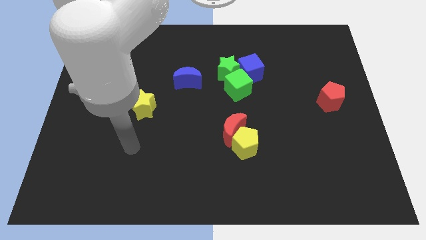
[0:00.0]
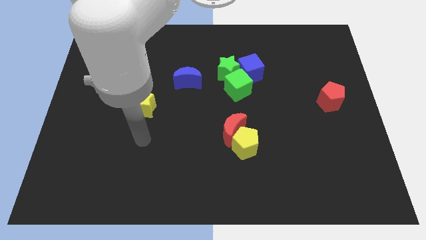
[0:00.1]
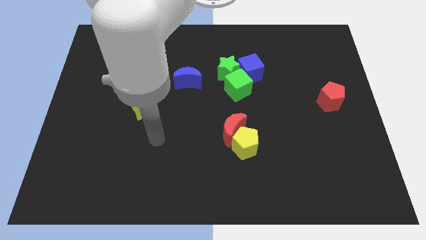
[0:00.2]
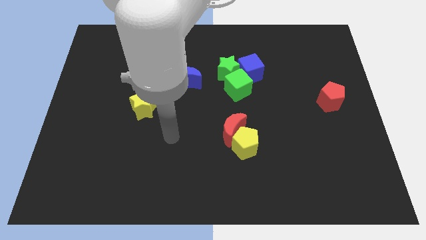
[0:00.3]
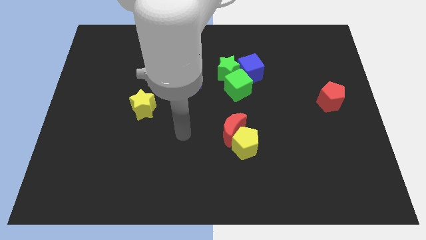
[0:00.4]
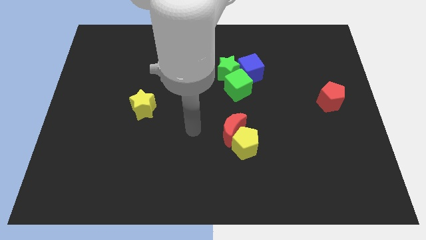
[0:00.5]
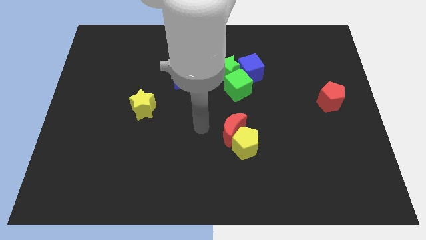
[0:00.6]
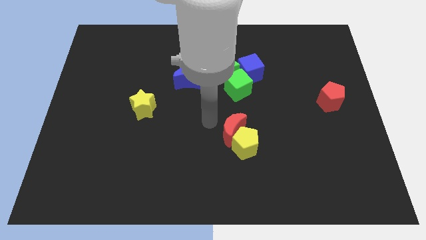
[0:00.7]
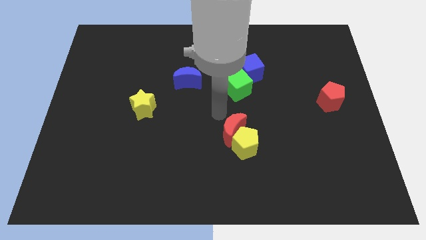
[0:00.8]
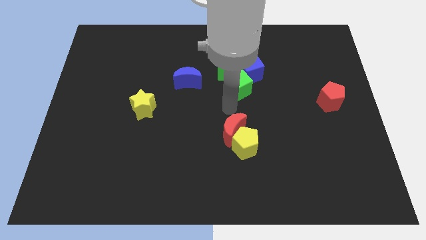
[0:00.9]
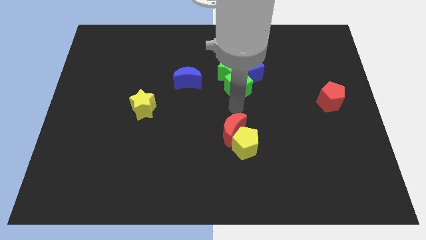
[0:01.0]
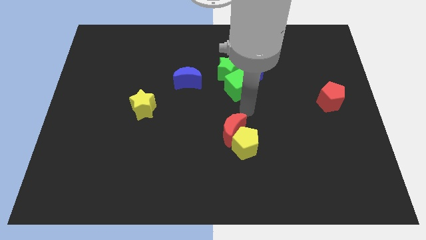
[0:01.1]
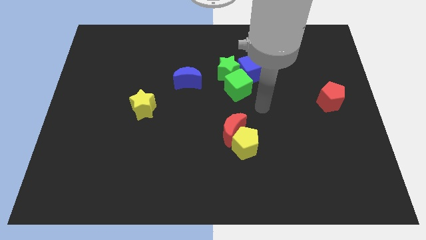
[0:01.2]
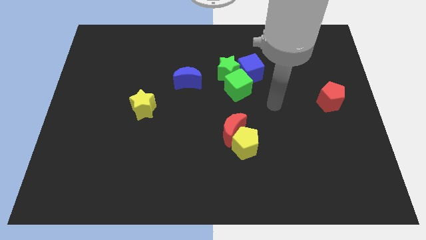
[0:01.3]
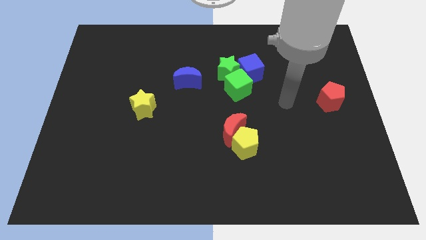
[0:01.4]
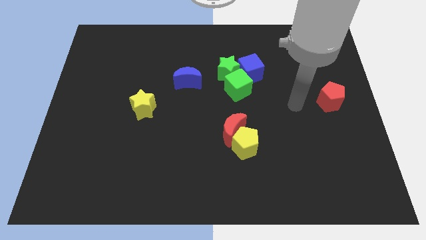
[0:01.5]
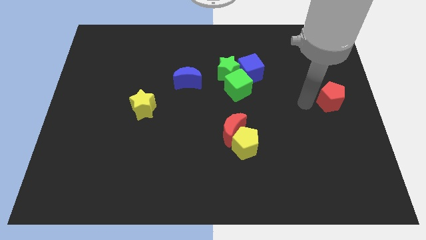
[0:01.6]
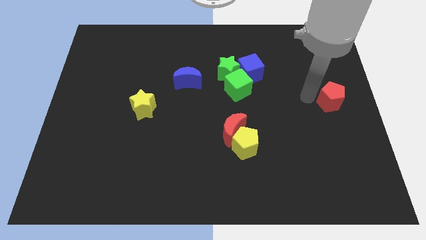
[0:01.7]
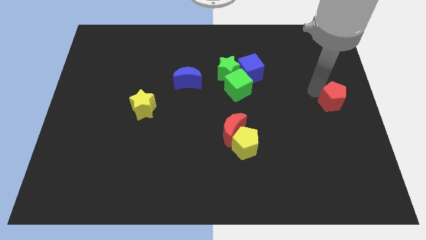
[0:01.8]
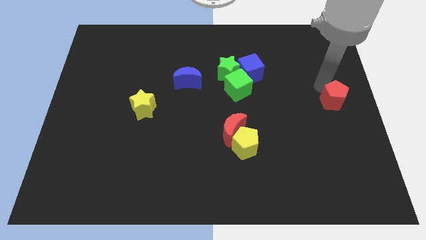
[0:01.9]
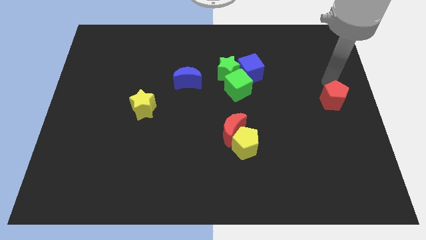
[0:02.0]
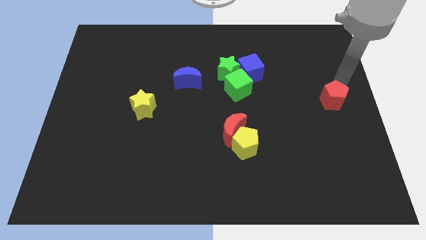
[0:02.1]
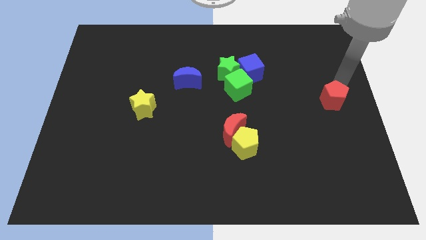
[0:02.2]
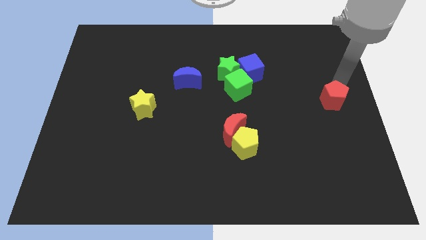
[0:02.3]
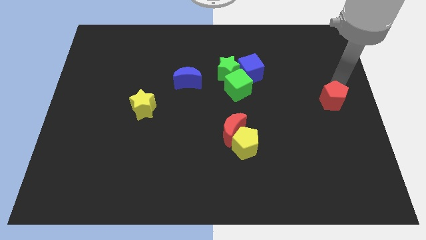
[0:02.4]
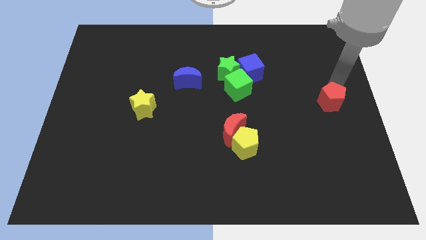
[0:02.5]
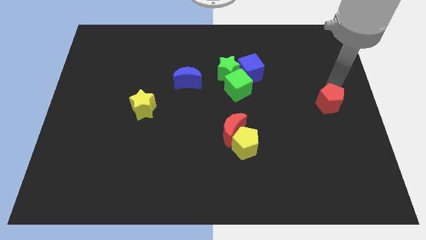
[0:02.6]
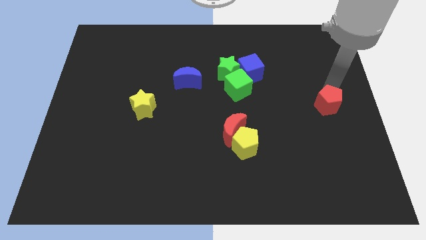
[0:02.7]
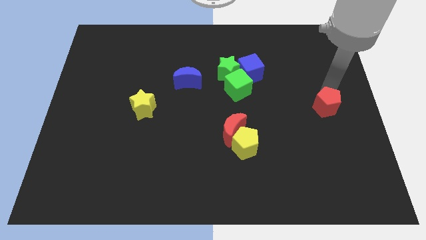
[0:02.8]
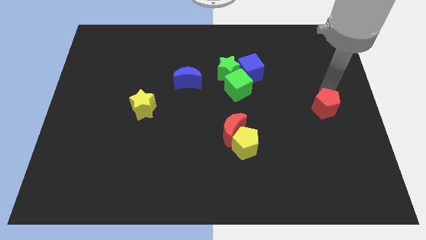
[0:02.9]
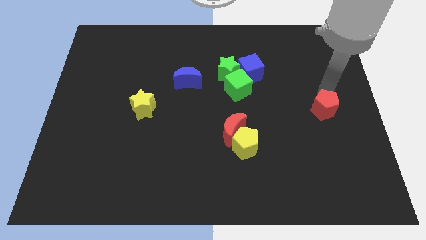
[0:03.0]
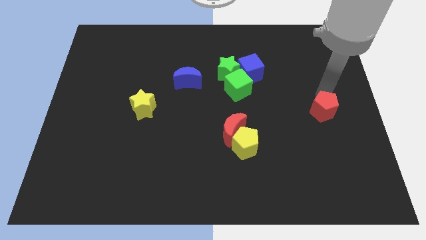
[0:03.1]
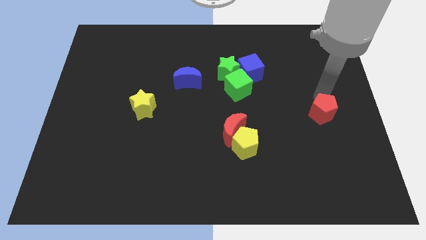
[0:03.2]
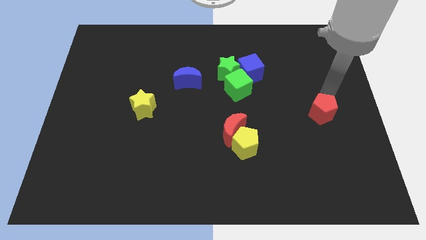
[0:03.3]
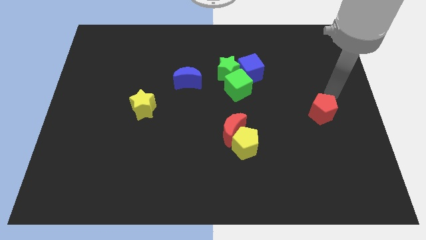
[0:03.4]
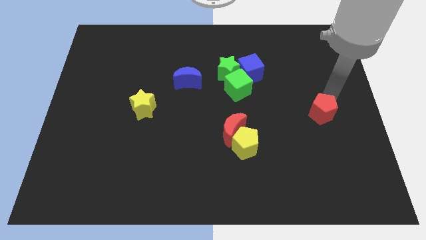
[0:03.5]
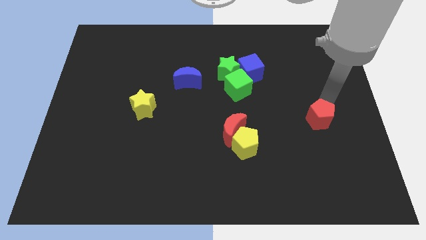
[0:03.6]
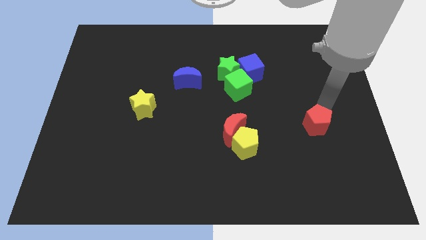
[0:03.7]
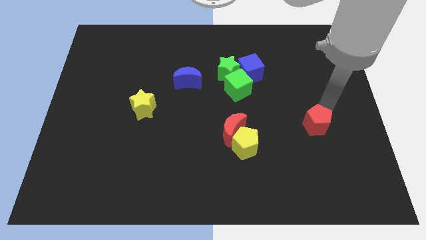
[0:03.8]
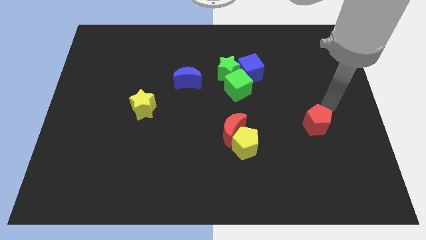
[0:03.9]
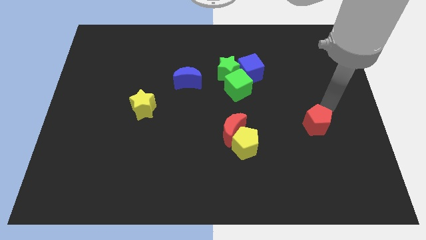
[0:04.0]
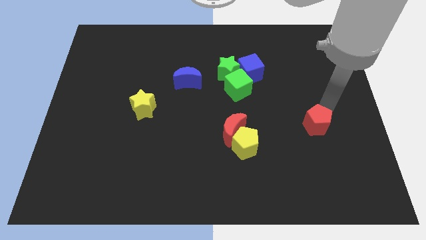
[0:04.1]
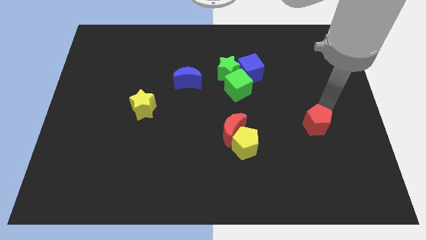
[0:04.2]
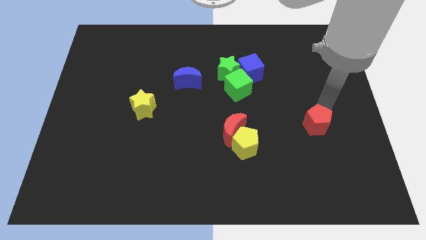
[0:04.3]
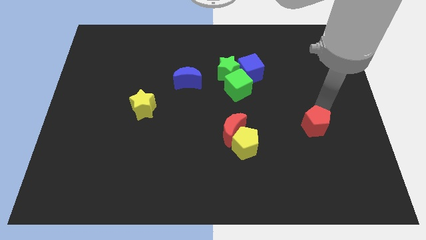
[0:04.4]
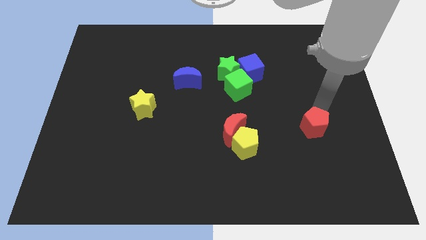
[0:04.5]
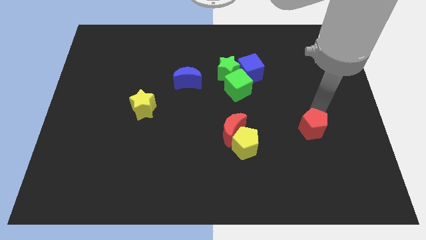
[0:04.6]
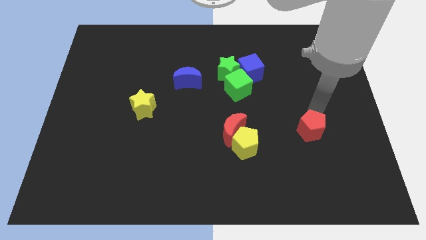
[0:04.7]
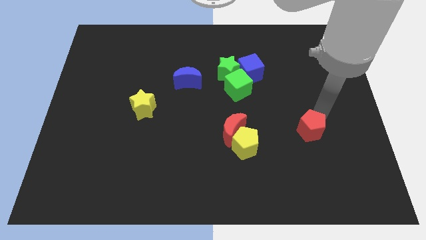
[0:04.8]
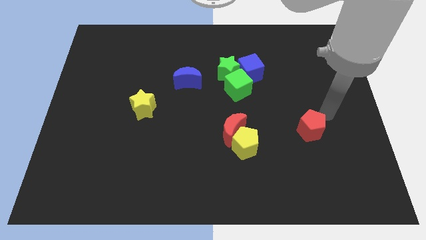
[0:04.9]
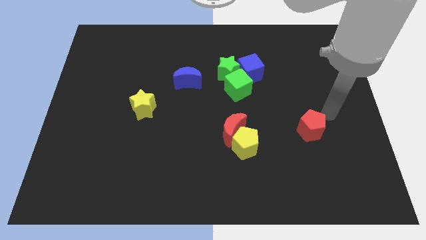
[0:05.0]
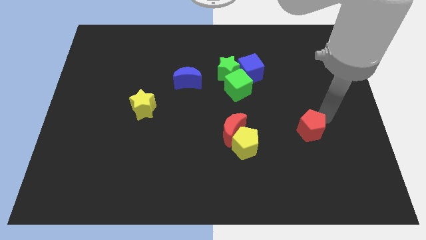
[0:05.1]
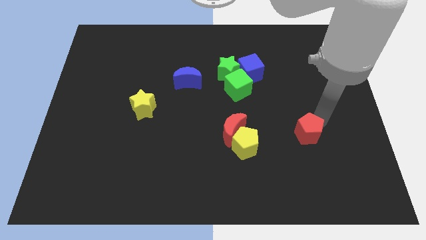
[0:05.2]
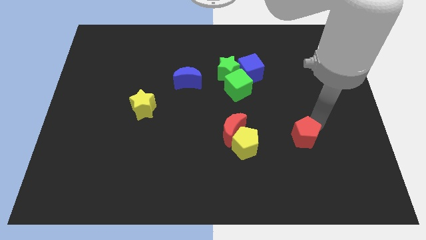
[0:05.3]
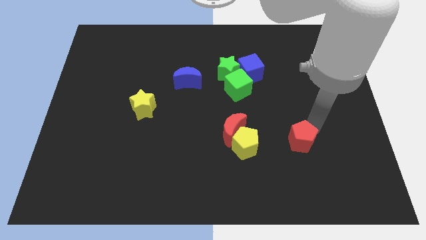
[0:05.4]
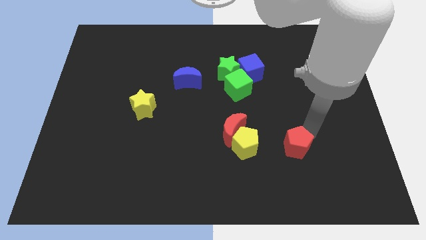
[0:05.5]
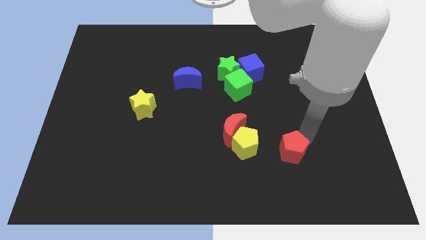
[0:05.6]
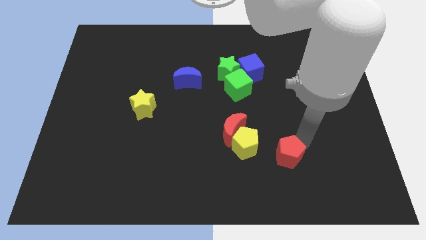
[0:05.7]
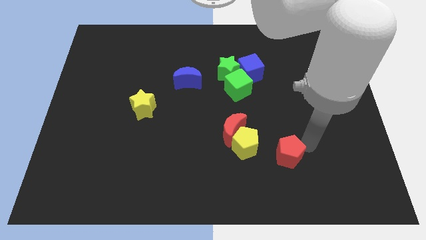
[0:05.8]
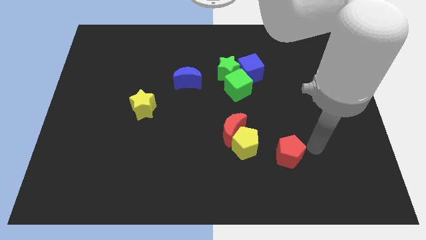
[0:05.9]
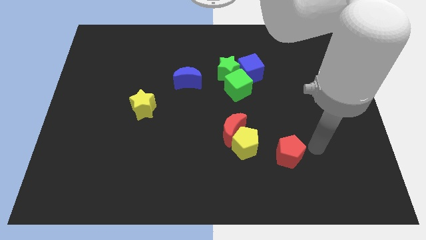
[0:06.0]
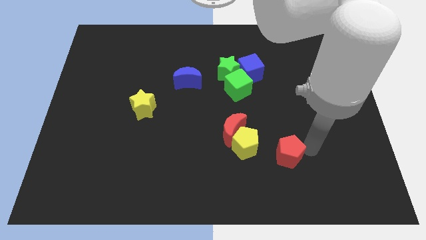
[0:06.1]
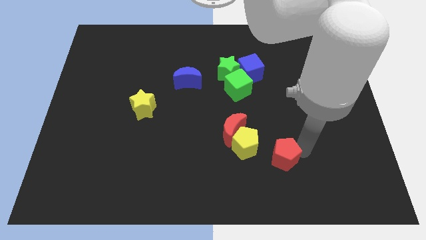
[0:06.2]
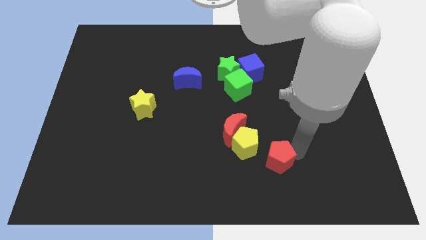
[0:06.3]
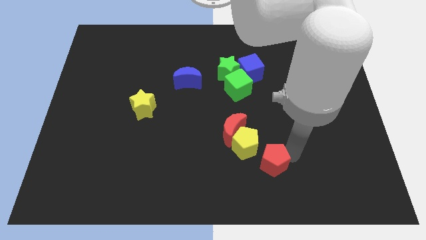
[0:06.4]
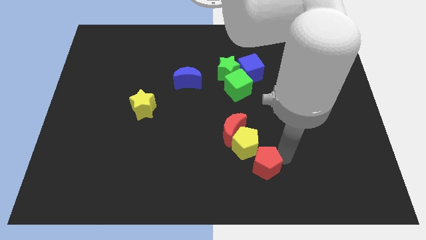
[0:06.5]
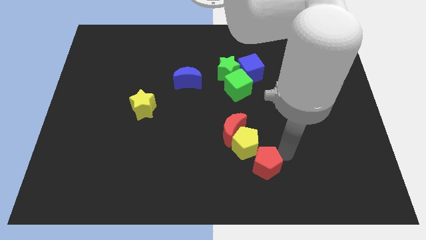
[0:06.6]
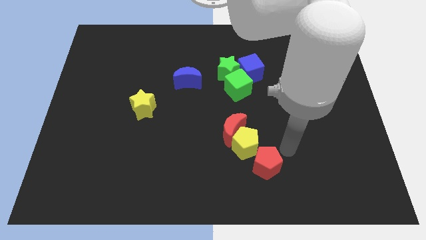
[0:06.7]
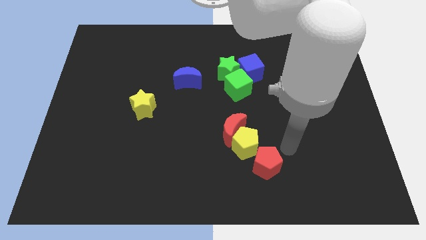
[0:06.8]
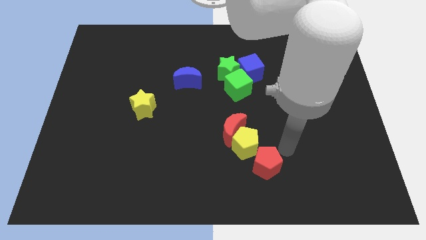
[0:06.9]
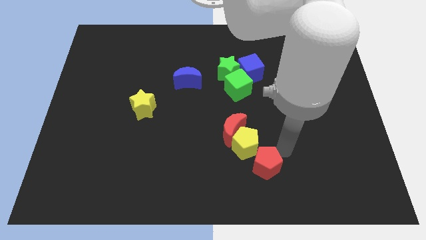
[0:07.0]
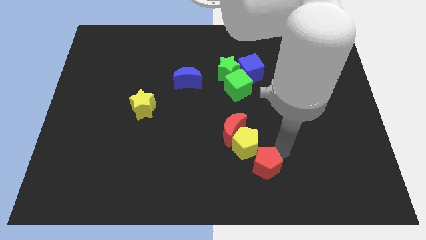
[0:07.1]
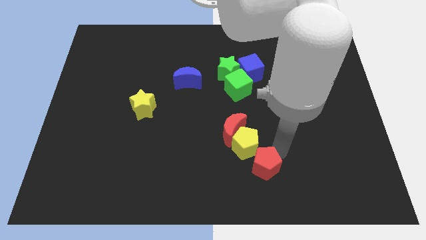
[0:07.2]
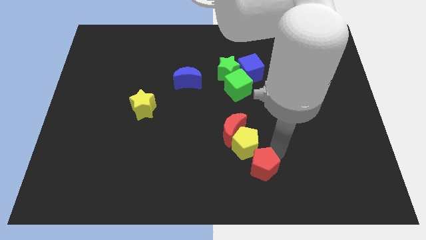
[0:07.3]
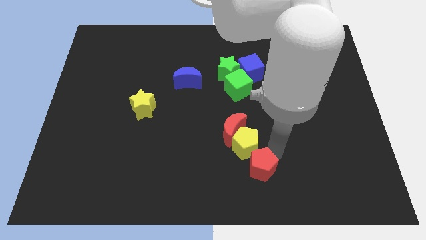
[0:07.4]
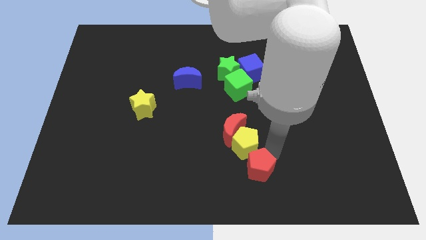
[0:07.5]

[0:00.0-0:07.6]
slide the red pentagon to the bottom
